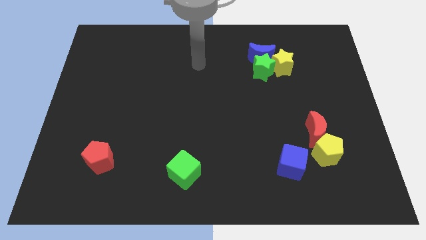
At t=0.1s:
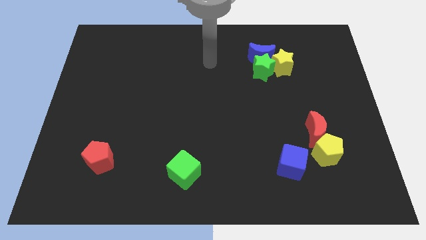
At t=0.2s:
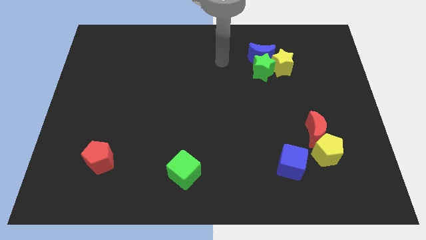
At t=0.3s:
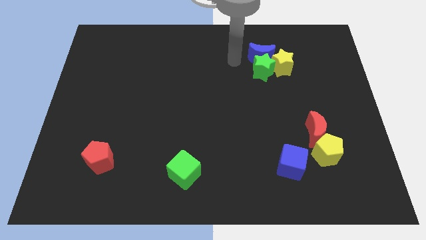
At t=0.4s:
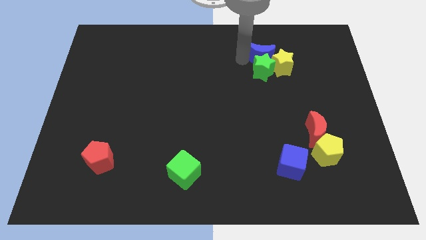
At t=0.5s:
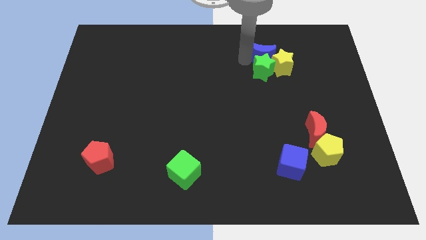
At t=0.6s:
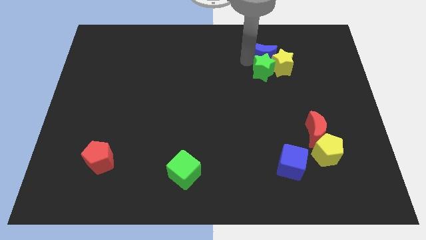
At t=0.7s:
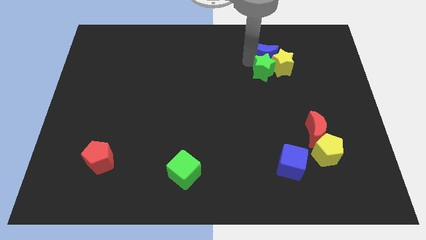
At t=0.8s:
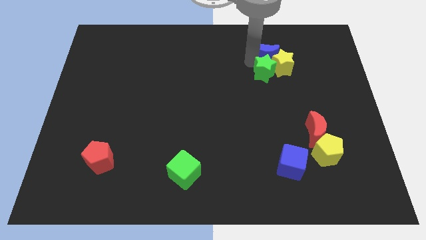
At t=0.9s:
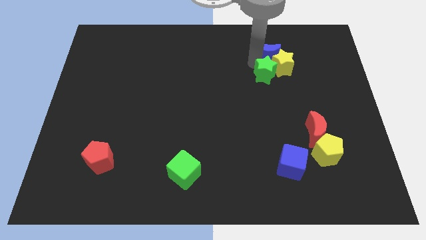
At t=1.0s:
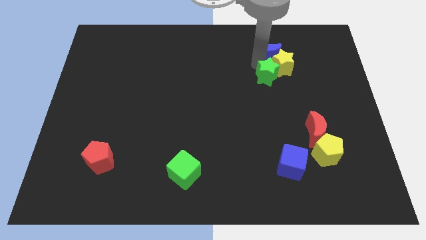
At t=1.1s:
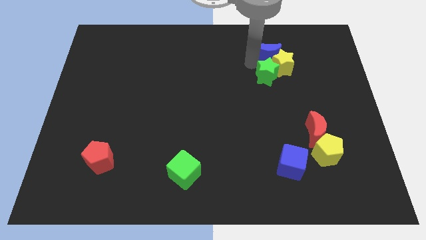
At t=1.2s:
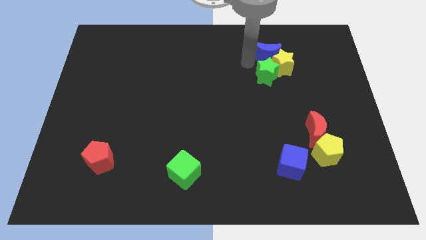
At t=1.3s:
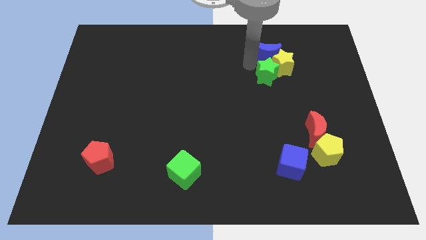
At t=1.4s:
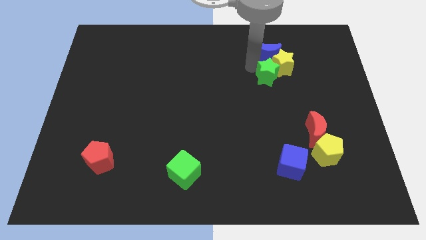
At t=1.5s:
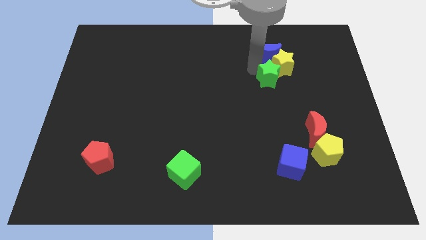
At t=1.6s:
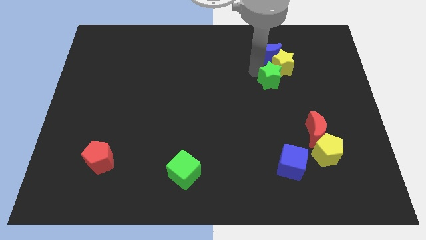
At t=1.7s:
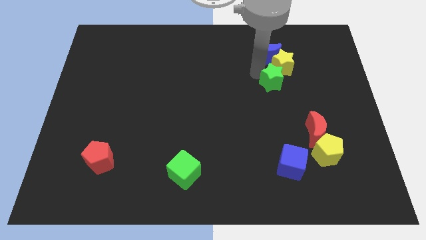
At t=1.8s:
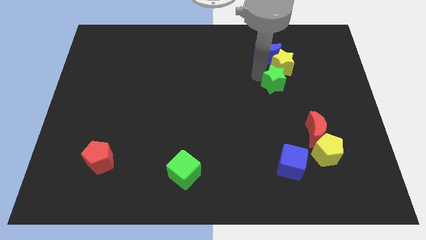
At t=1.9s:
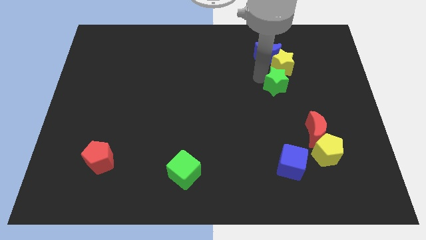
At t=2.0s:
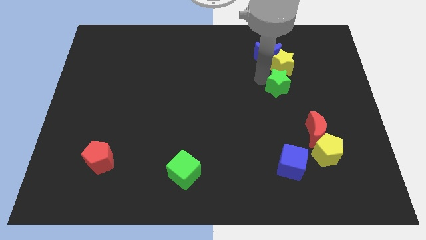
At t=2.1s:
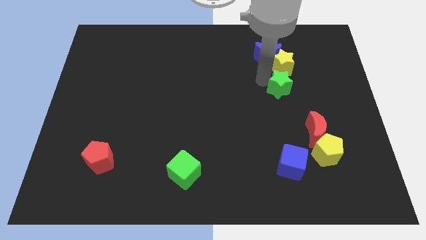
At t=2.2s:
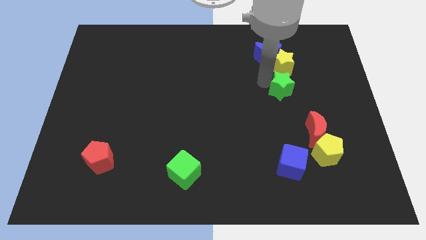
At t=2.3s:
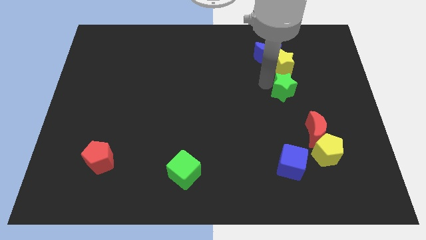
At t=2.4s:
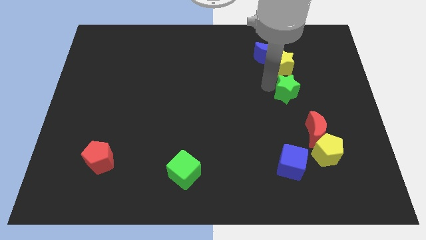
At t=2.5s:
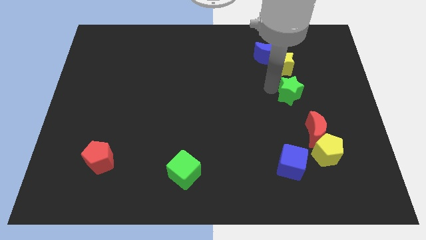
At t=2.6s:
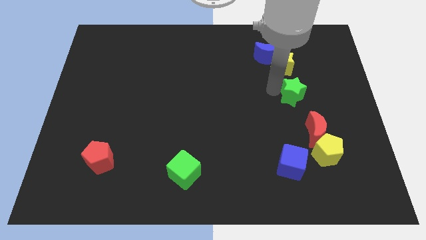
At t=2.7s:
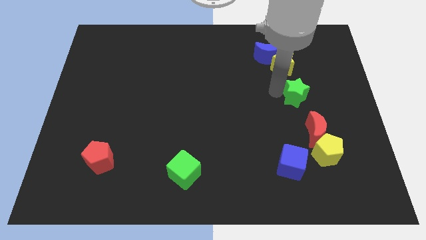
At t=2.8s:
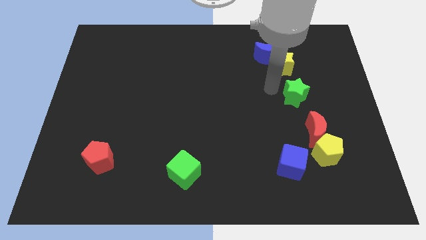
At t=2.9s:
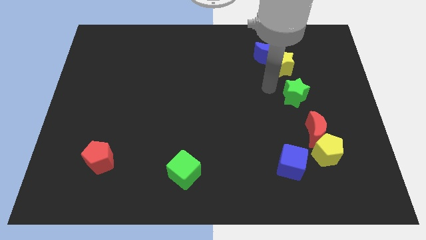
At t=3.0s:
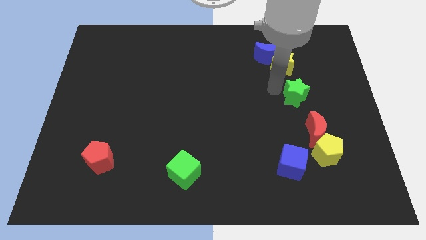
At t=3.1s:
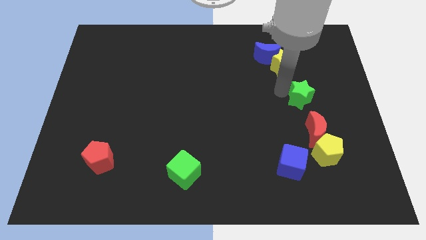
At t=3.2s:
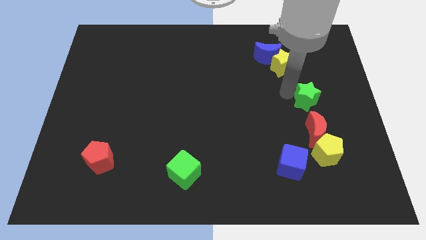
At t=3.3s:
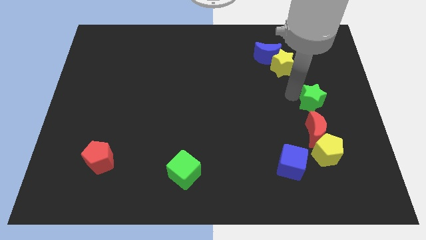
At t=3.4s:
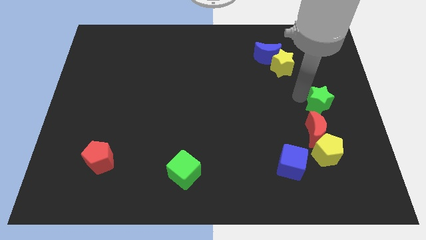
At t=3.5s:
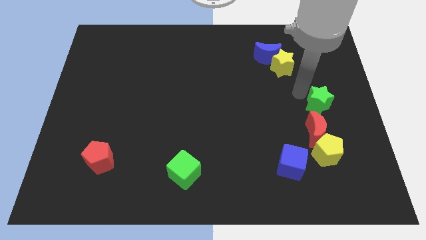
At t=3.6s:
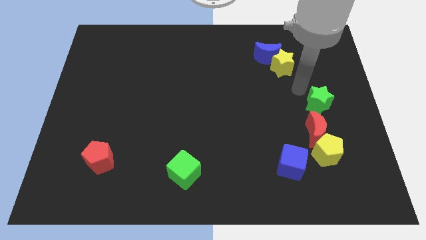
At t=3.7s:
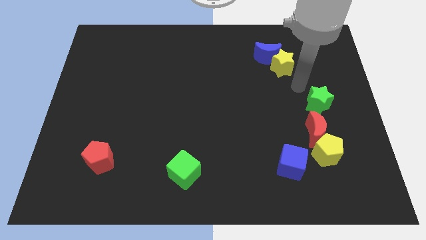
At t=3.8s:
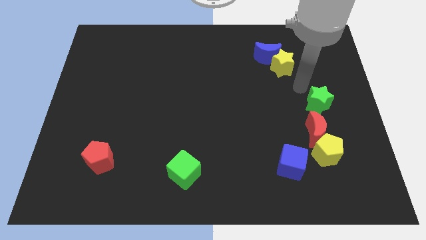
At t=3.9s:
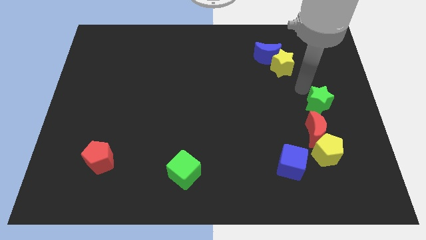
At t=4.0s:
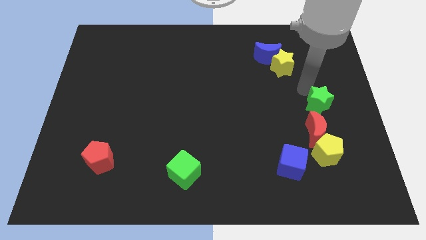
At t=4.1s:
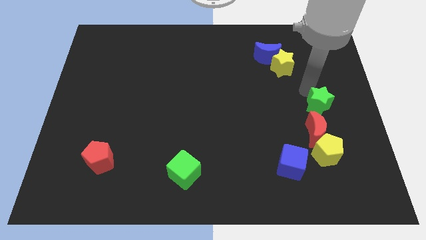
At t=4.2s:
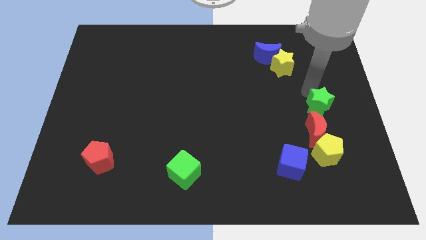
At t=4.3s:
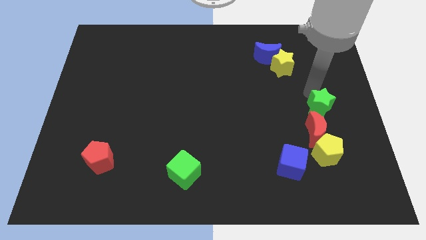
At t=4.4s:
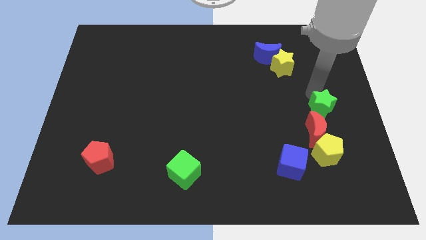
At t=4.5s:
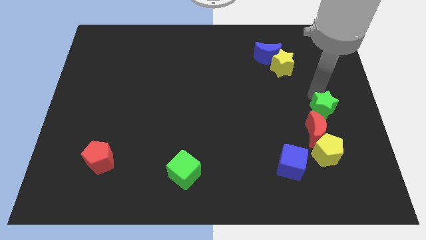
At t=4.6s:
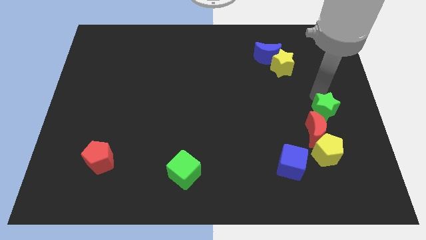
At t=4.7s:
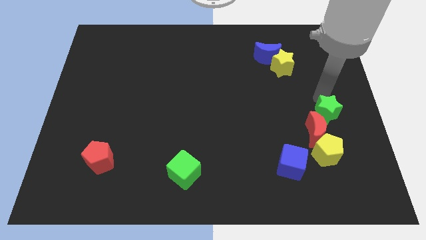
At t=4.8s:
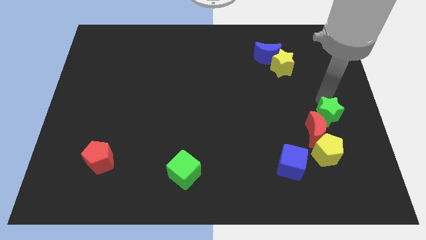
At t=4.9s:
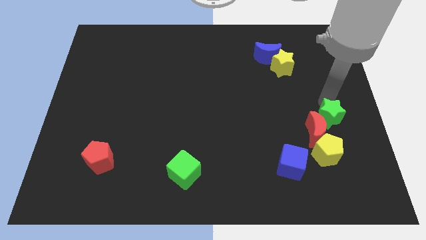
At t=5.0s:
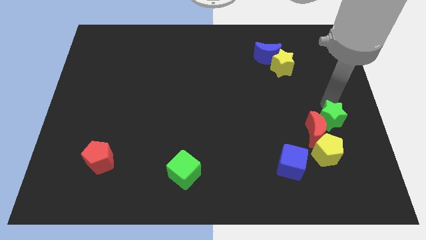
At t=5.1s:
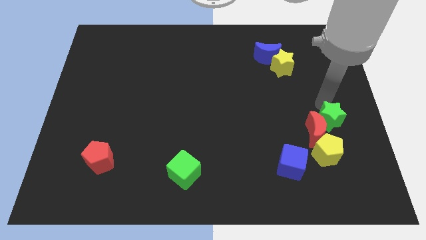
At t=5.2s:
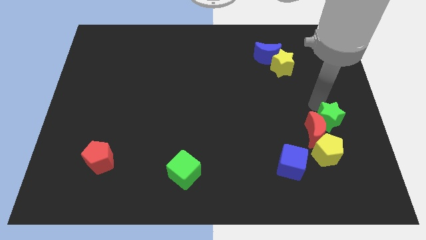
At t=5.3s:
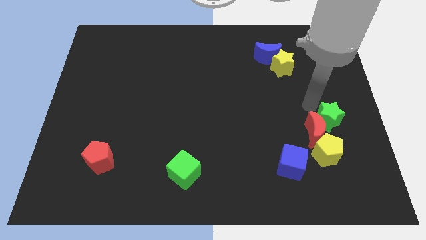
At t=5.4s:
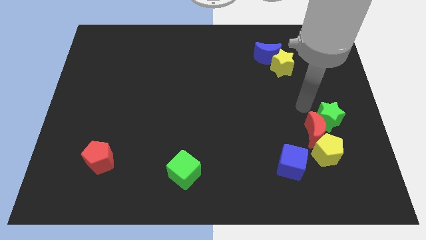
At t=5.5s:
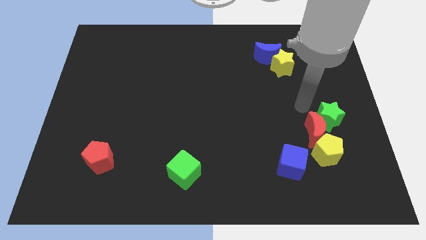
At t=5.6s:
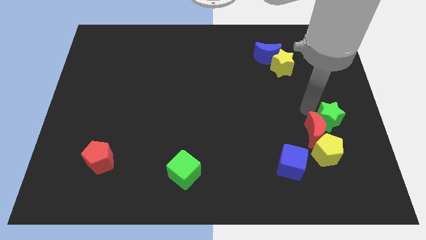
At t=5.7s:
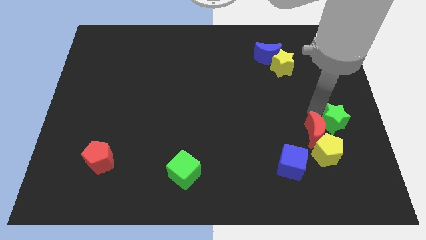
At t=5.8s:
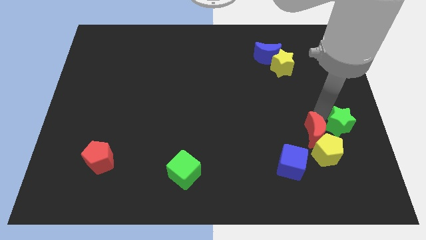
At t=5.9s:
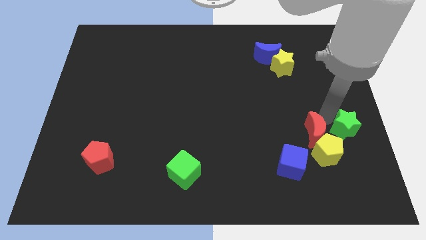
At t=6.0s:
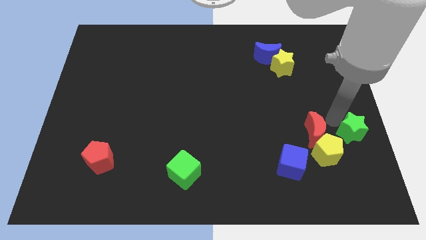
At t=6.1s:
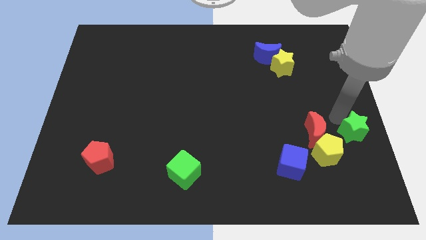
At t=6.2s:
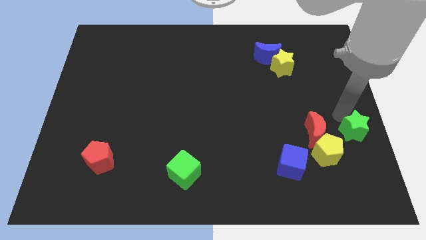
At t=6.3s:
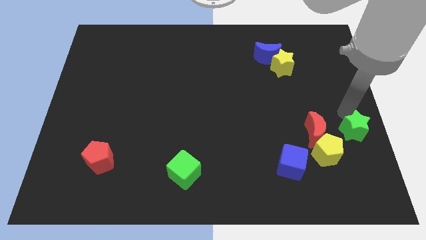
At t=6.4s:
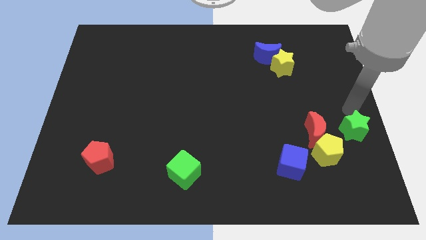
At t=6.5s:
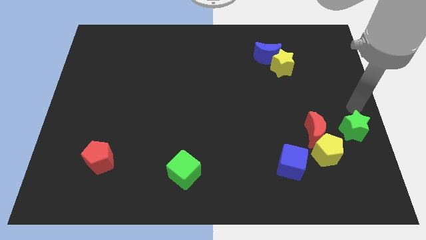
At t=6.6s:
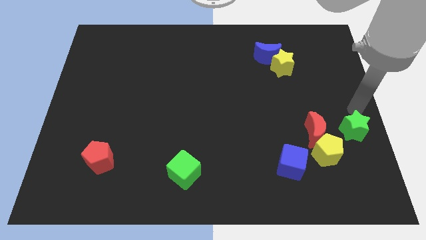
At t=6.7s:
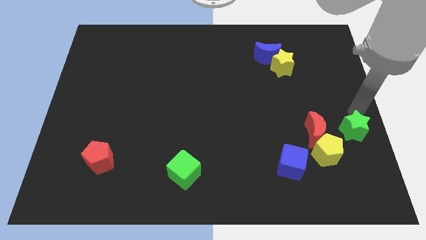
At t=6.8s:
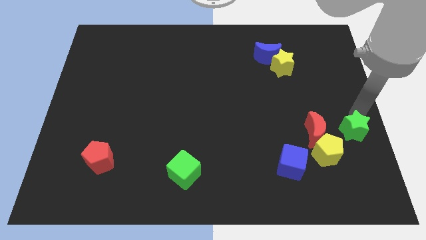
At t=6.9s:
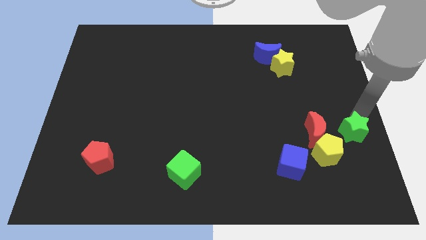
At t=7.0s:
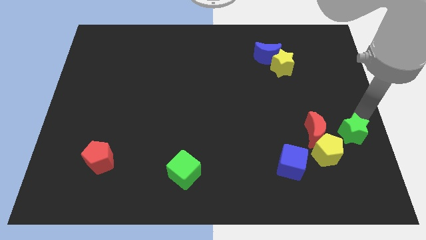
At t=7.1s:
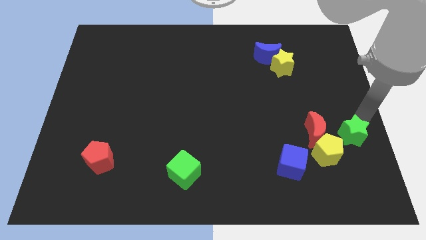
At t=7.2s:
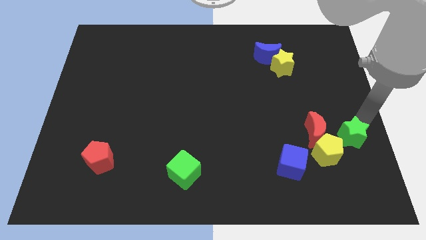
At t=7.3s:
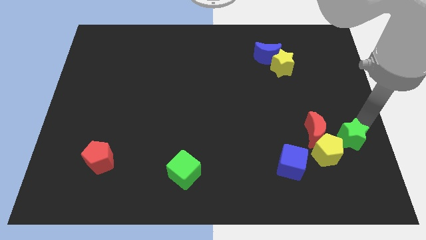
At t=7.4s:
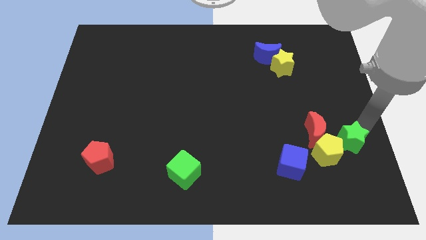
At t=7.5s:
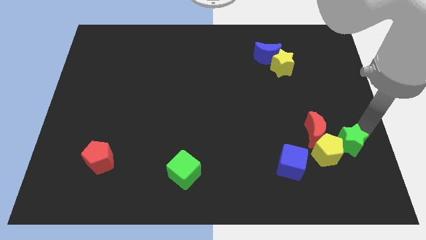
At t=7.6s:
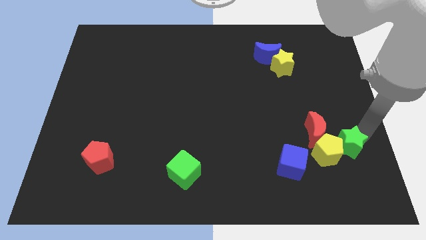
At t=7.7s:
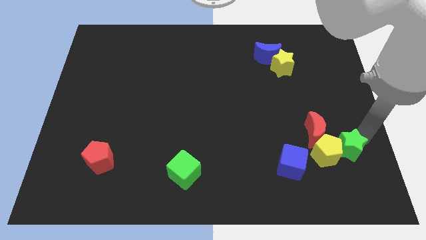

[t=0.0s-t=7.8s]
push the green star to the right side of the blue cube

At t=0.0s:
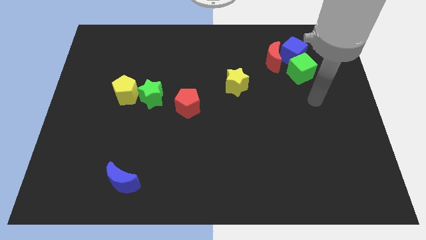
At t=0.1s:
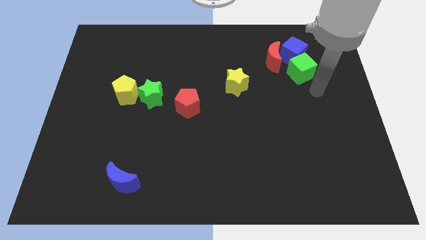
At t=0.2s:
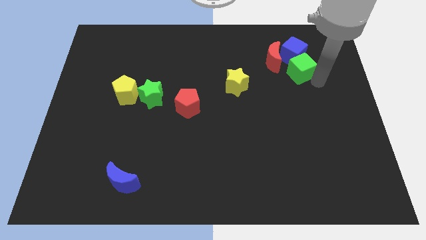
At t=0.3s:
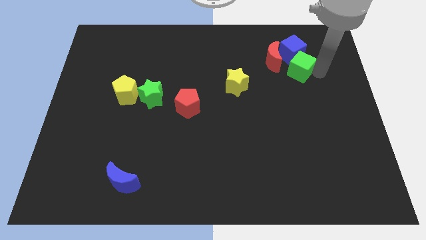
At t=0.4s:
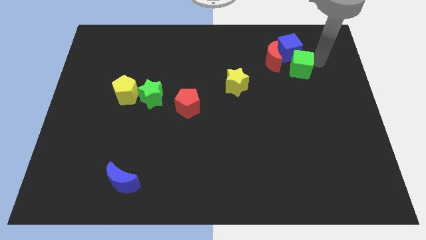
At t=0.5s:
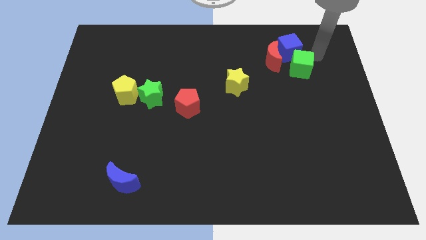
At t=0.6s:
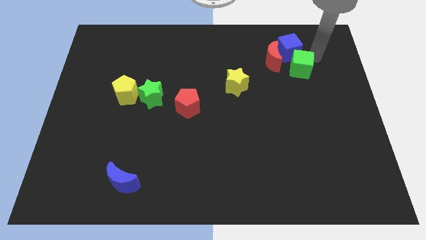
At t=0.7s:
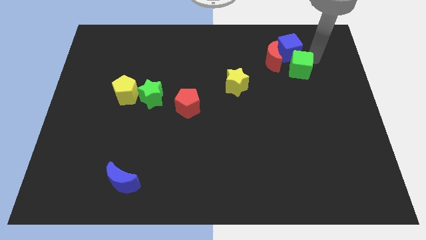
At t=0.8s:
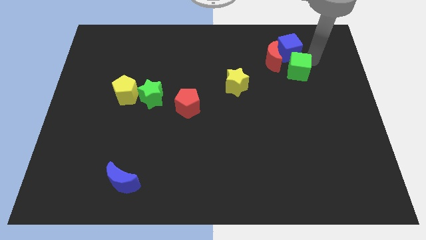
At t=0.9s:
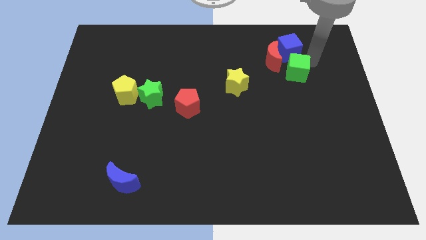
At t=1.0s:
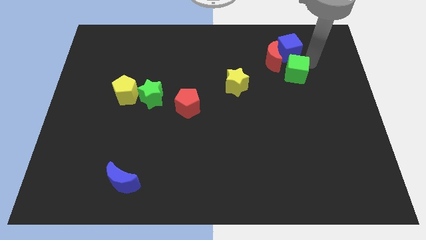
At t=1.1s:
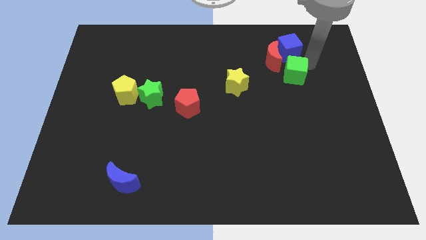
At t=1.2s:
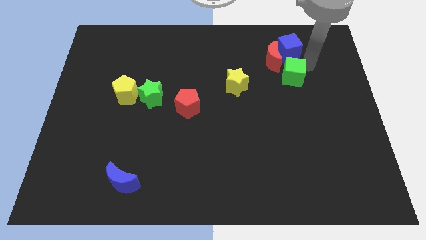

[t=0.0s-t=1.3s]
push the green cube to the bottom side of the red moon
